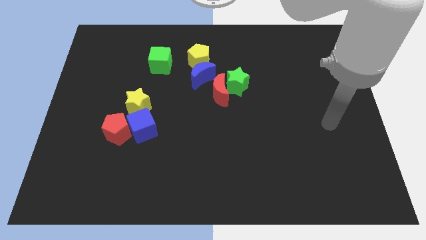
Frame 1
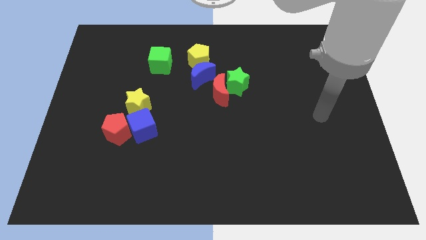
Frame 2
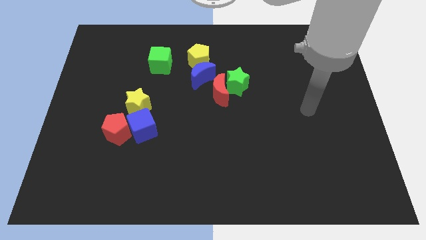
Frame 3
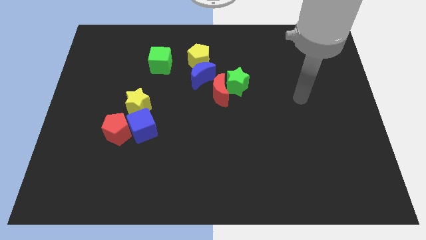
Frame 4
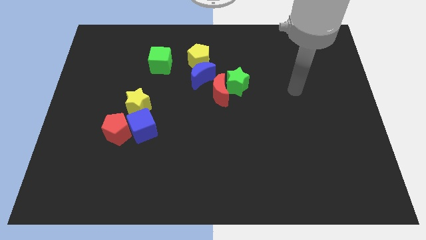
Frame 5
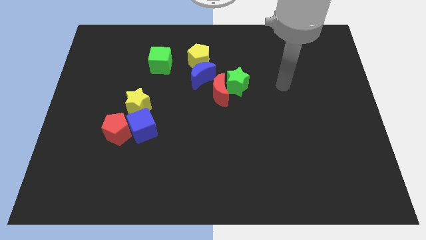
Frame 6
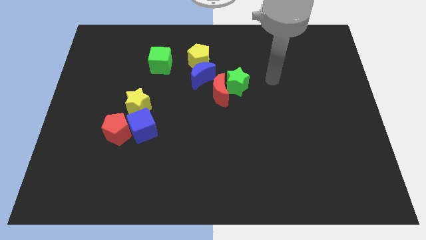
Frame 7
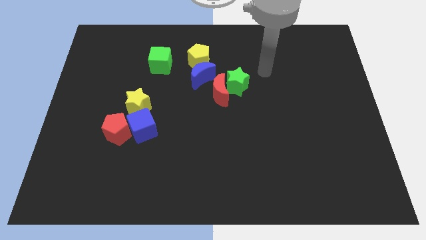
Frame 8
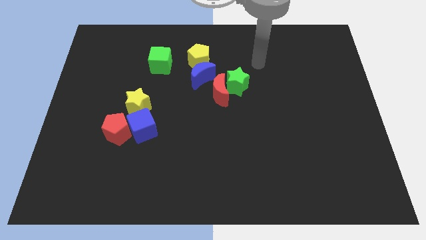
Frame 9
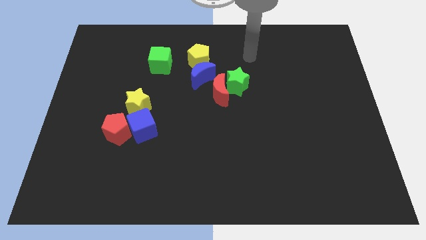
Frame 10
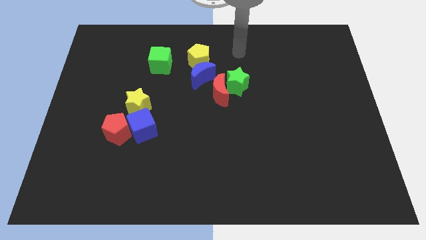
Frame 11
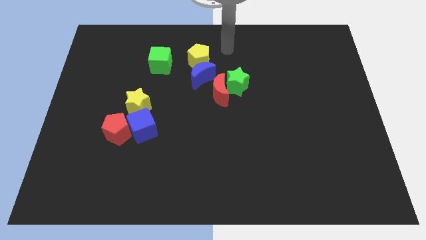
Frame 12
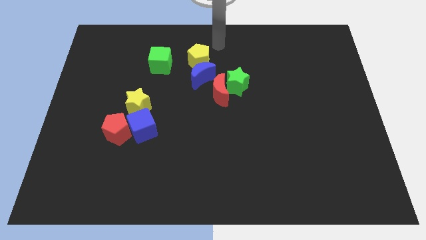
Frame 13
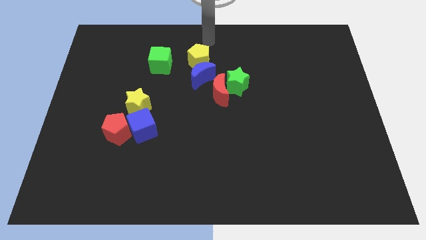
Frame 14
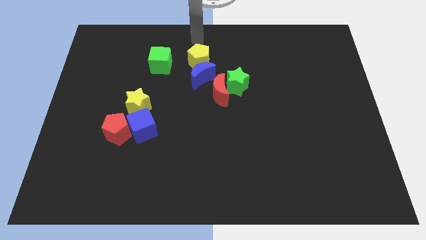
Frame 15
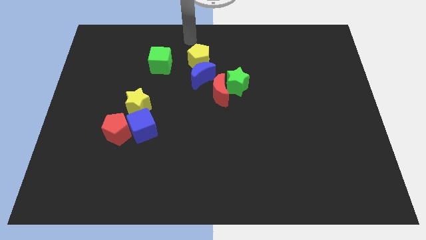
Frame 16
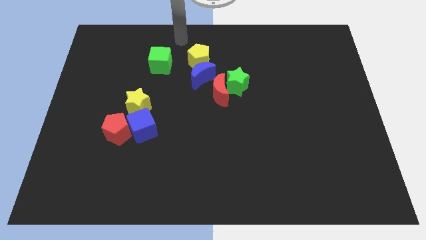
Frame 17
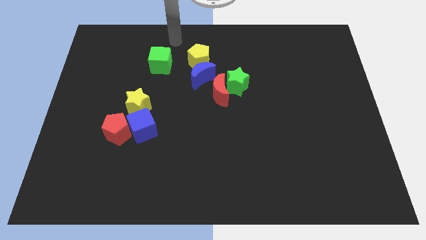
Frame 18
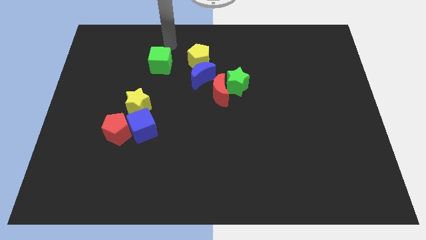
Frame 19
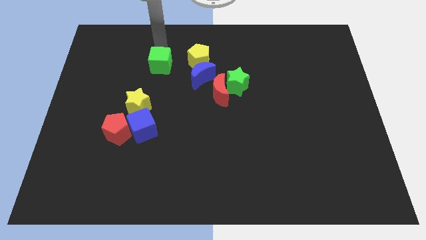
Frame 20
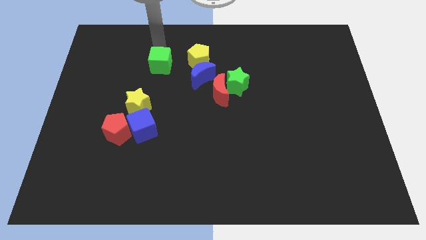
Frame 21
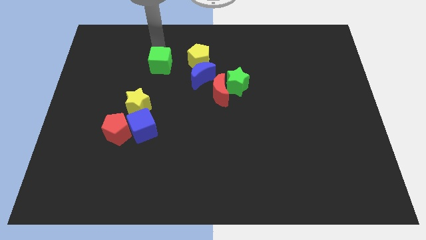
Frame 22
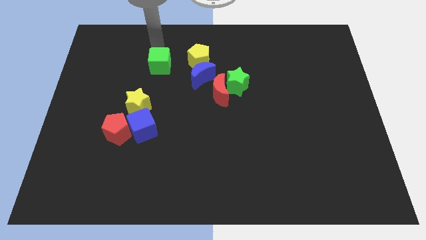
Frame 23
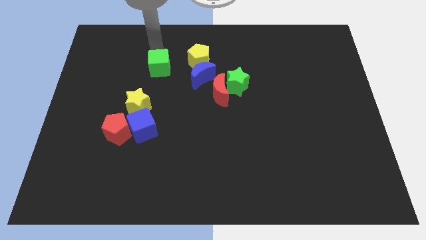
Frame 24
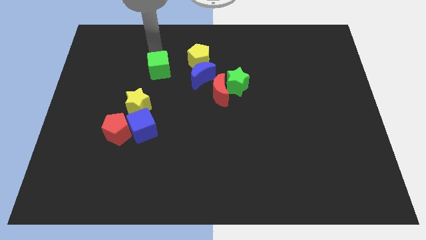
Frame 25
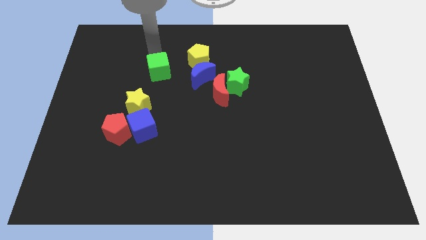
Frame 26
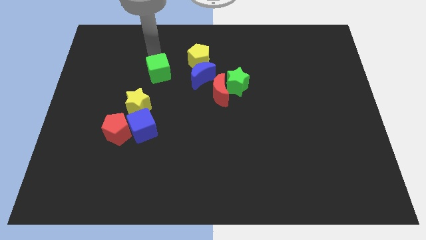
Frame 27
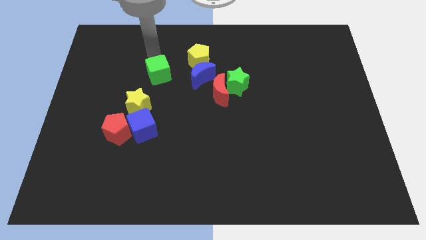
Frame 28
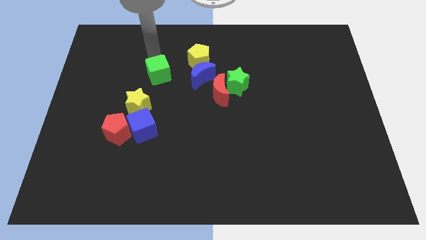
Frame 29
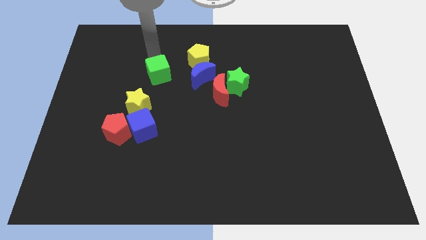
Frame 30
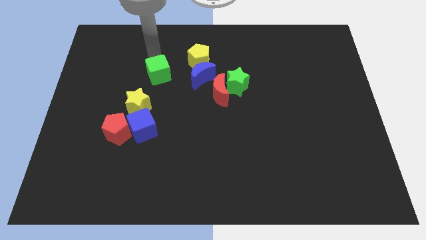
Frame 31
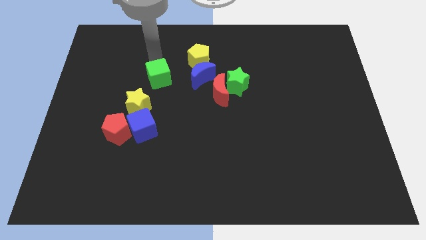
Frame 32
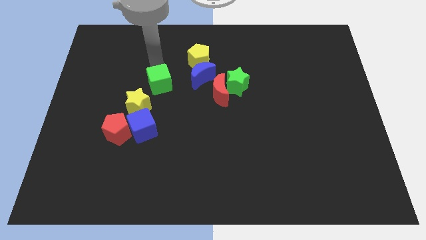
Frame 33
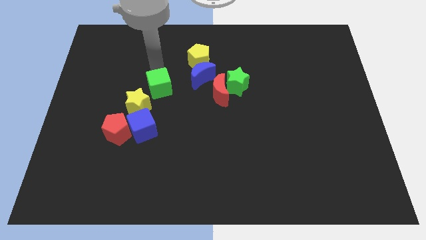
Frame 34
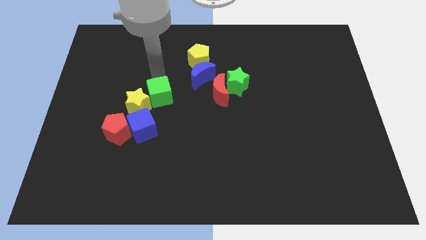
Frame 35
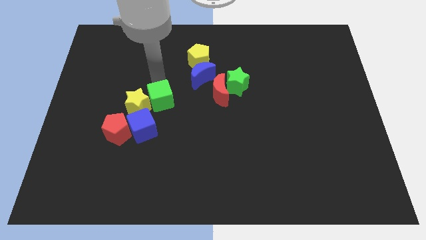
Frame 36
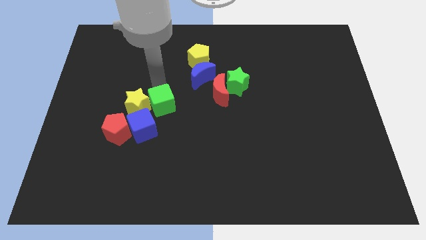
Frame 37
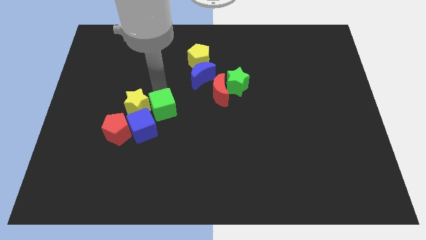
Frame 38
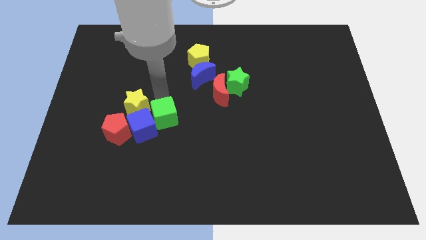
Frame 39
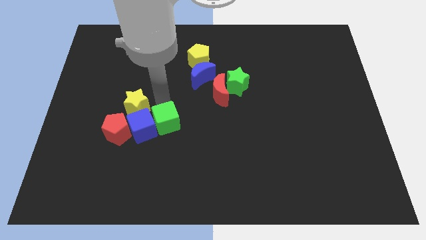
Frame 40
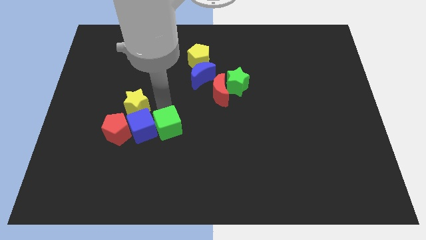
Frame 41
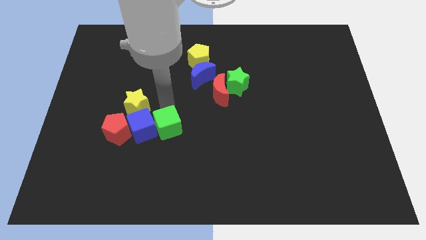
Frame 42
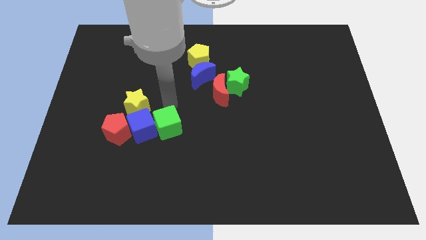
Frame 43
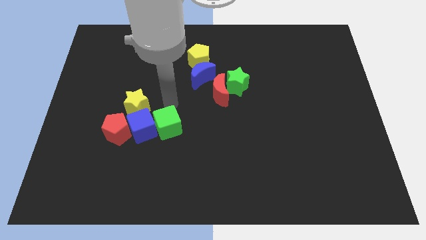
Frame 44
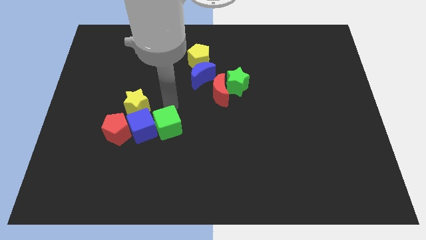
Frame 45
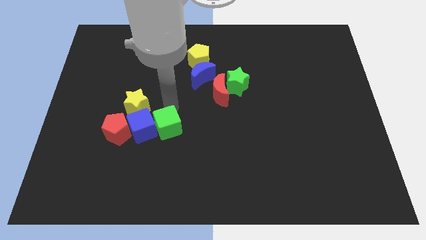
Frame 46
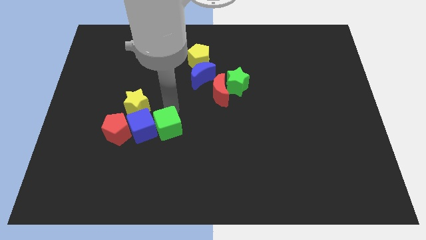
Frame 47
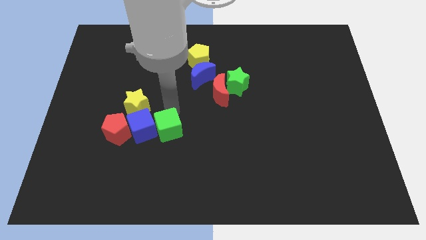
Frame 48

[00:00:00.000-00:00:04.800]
push the green cube down

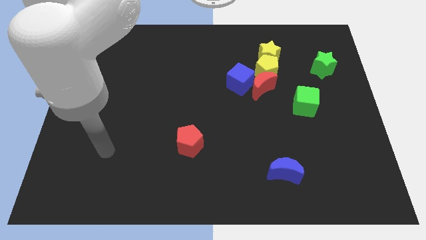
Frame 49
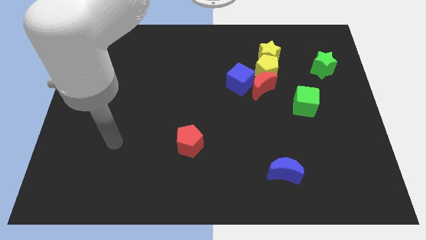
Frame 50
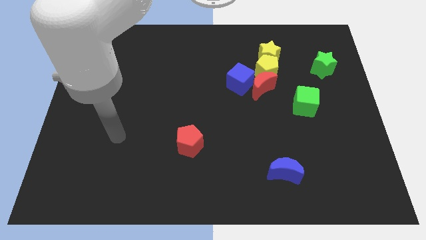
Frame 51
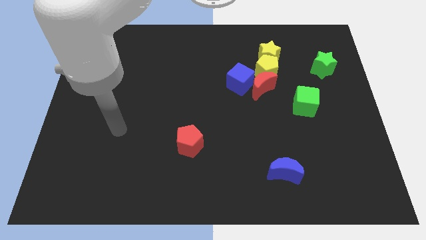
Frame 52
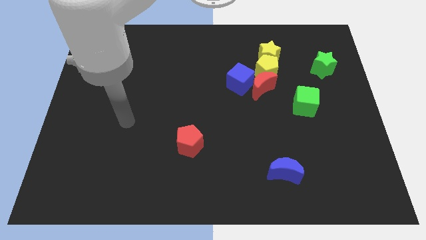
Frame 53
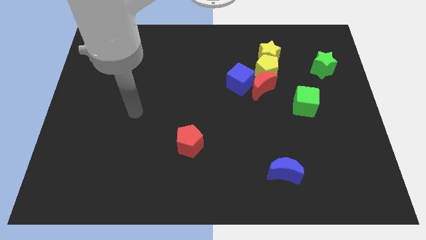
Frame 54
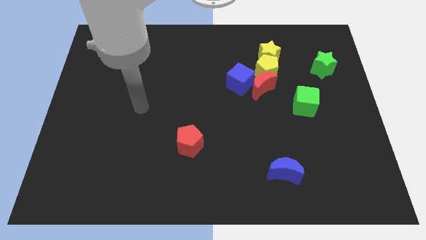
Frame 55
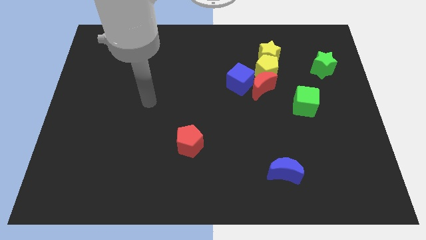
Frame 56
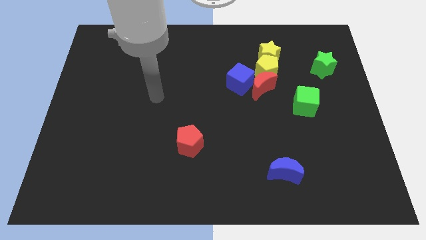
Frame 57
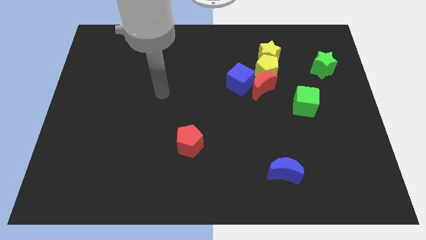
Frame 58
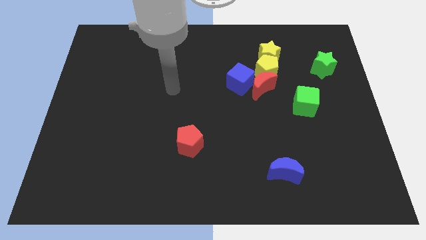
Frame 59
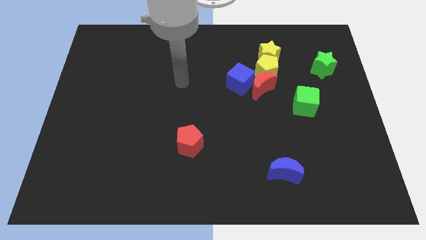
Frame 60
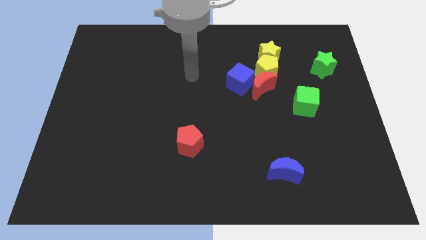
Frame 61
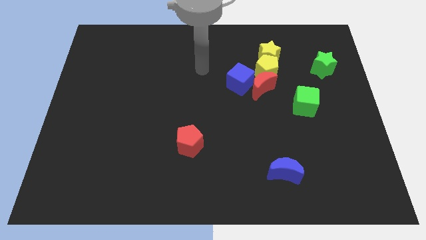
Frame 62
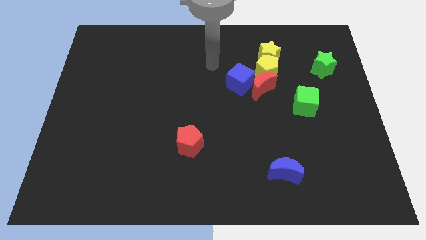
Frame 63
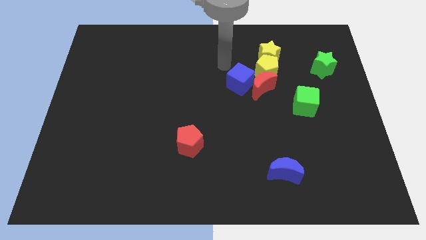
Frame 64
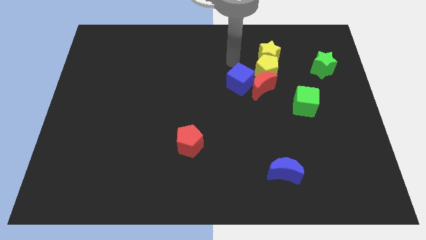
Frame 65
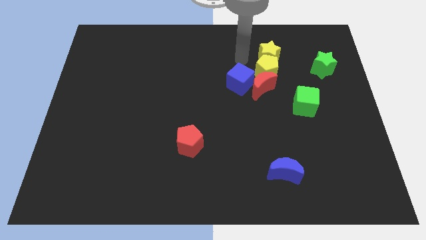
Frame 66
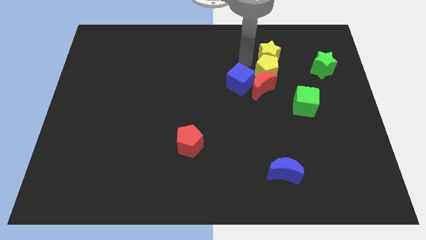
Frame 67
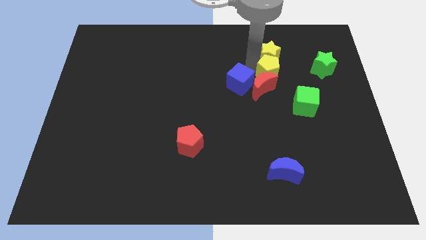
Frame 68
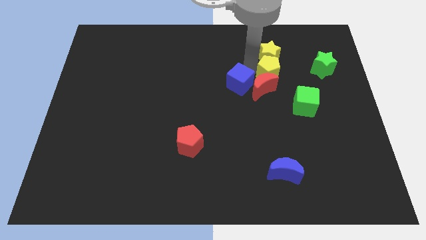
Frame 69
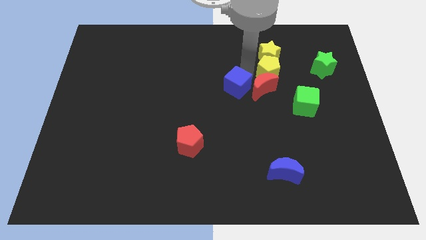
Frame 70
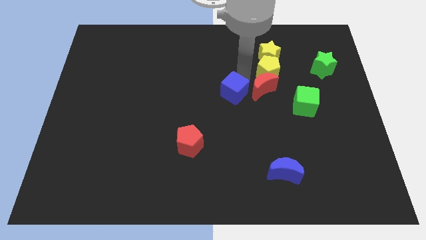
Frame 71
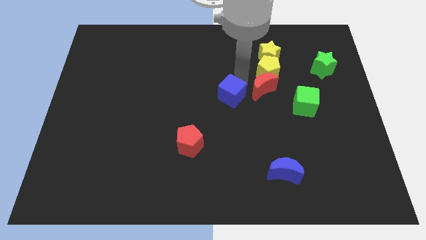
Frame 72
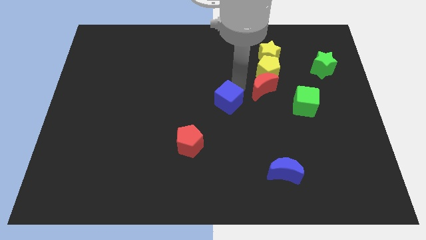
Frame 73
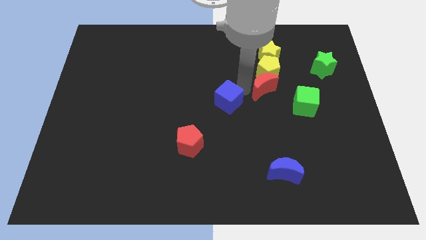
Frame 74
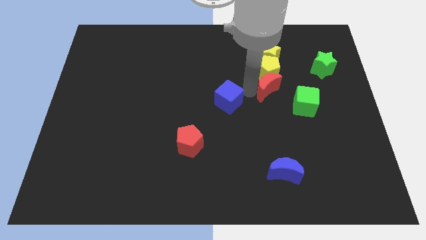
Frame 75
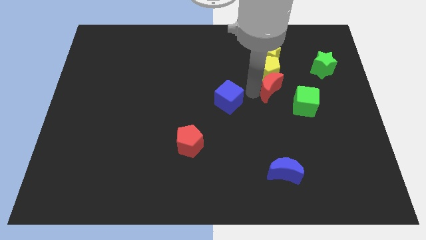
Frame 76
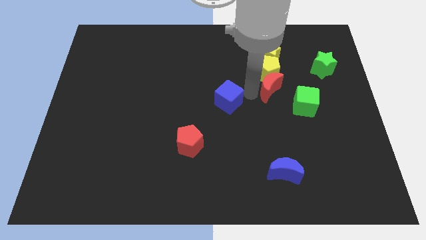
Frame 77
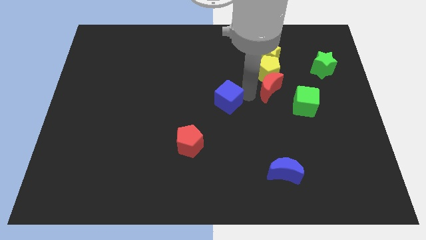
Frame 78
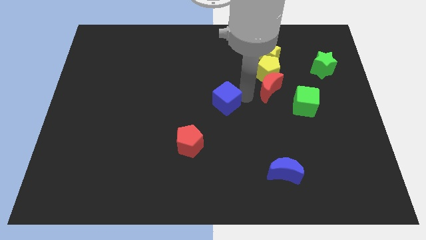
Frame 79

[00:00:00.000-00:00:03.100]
slightly slide the blue cube downwards and to the left
